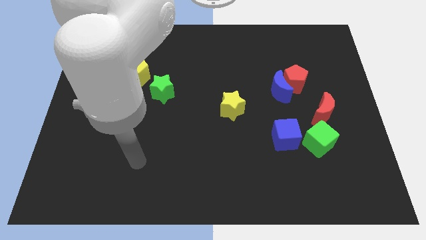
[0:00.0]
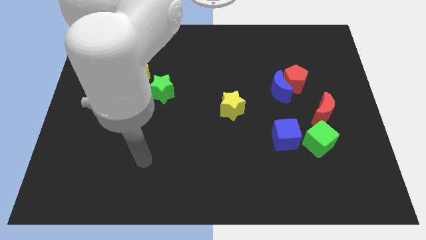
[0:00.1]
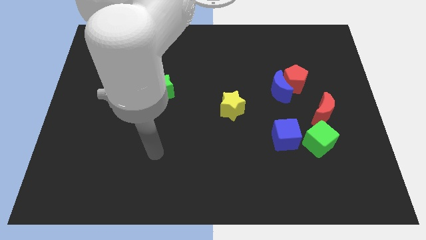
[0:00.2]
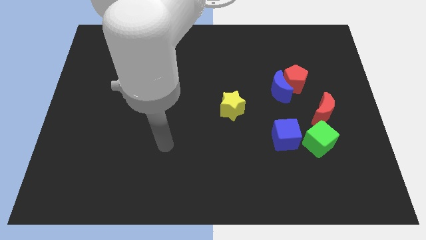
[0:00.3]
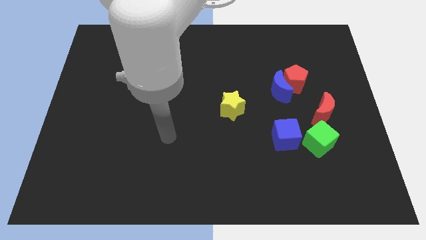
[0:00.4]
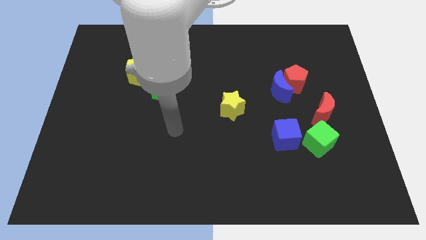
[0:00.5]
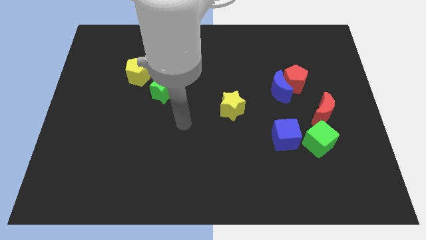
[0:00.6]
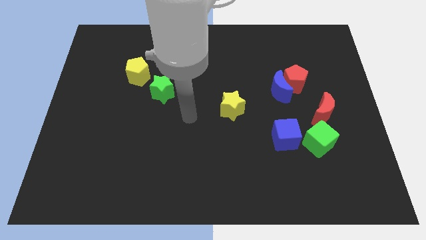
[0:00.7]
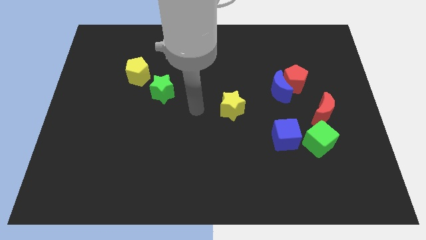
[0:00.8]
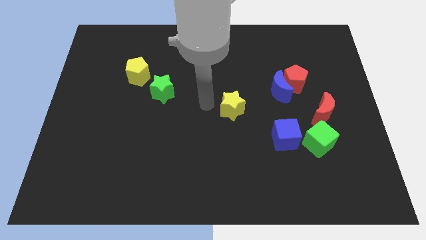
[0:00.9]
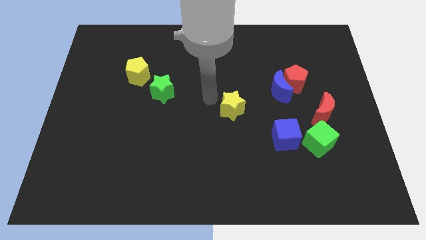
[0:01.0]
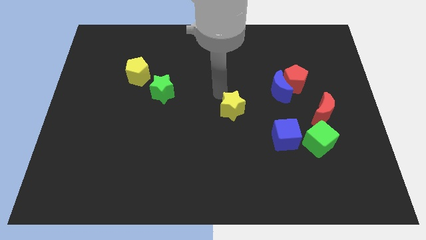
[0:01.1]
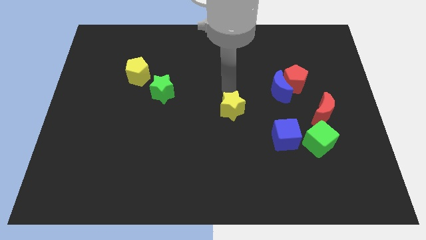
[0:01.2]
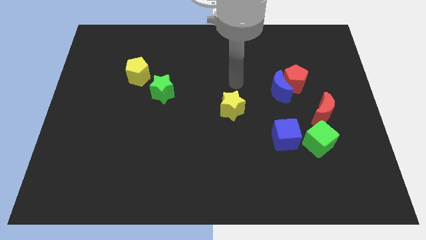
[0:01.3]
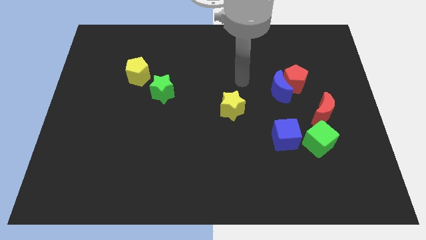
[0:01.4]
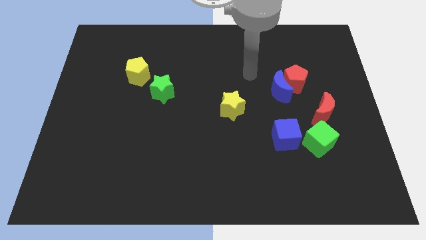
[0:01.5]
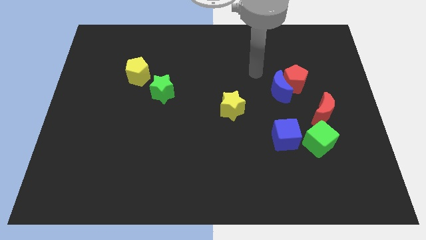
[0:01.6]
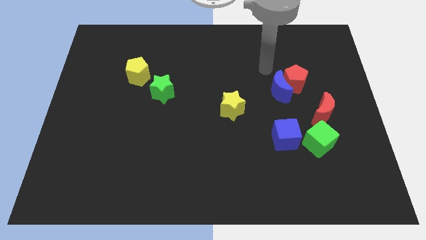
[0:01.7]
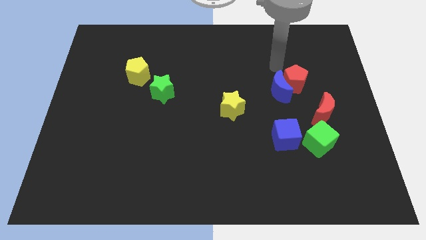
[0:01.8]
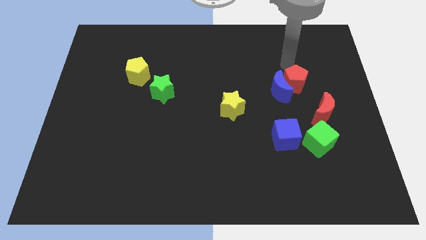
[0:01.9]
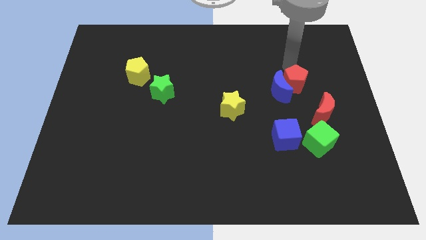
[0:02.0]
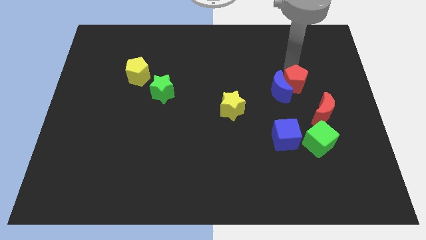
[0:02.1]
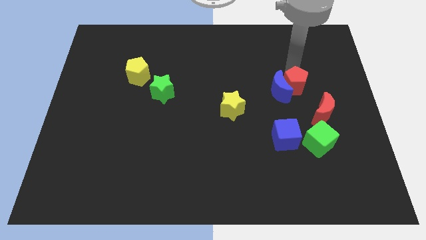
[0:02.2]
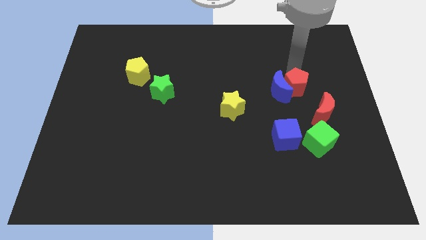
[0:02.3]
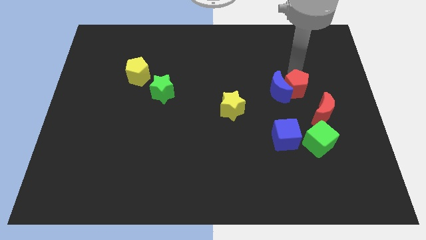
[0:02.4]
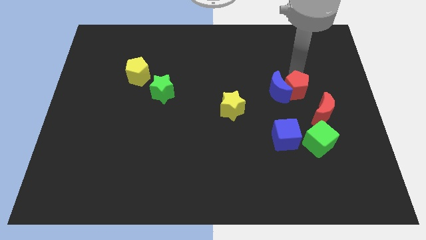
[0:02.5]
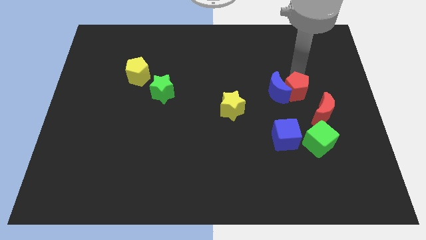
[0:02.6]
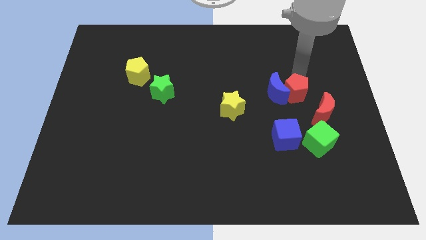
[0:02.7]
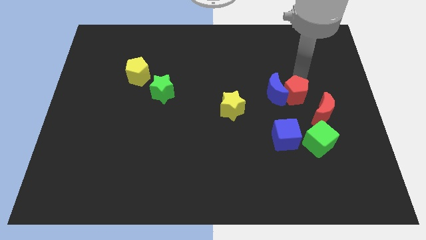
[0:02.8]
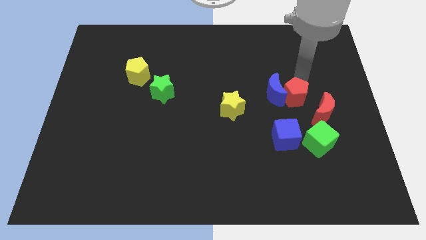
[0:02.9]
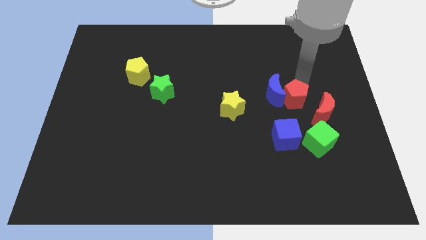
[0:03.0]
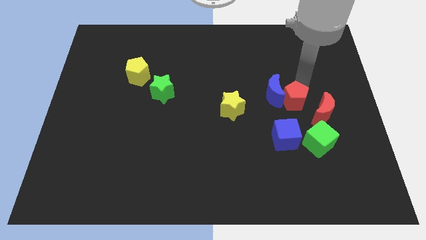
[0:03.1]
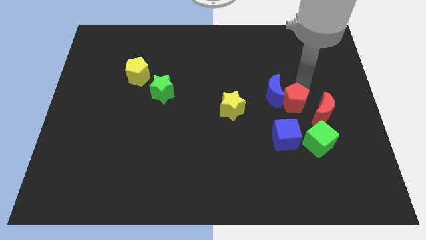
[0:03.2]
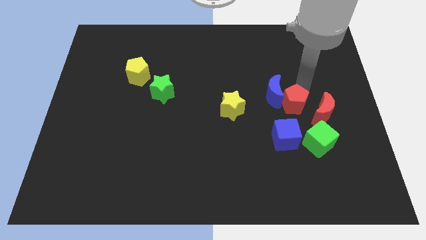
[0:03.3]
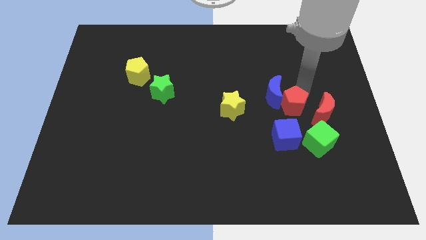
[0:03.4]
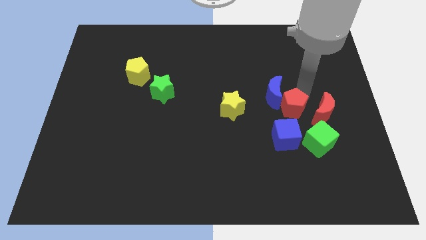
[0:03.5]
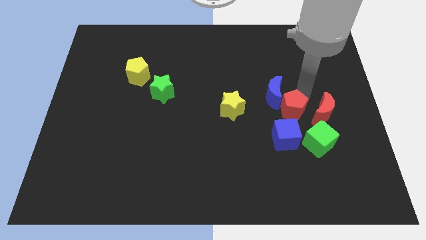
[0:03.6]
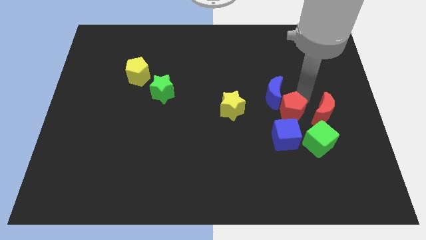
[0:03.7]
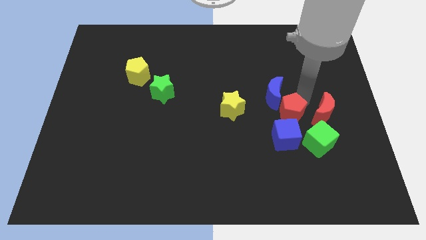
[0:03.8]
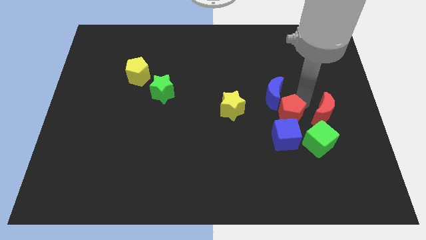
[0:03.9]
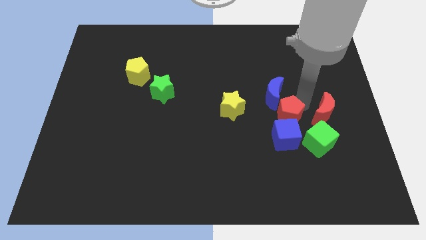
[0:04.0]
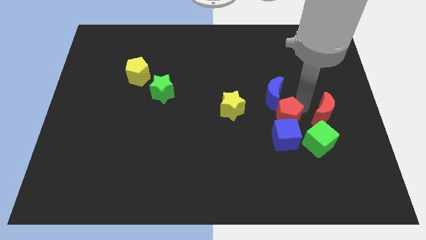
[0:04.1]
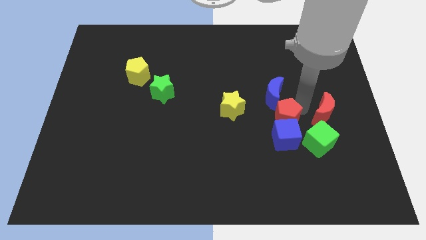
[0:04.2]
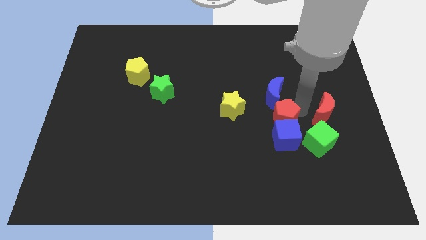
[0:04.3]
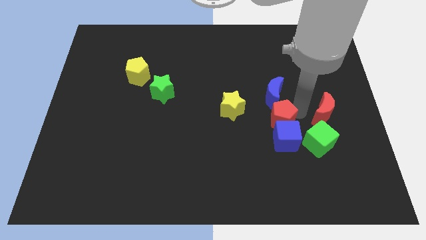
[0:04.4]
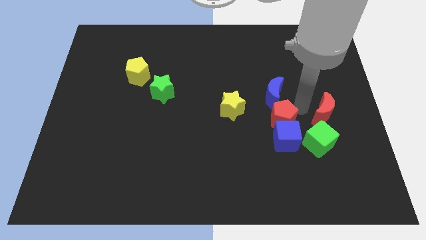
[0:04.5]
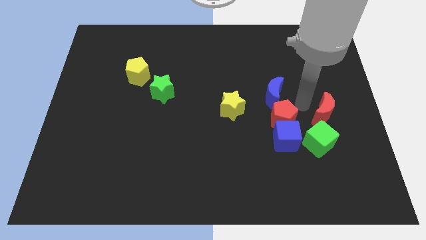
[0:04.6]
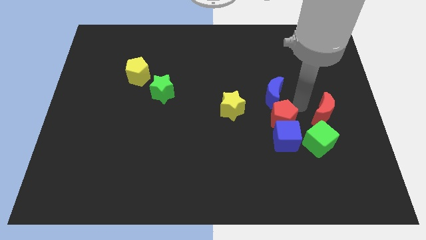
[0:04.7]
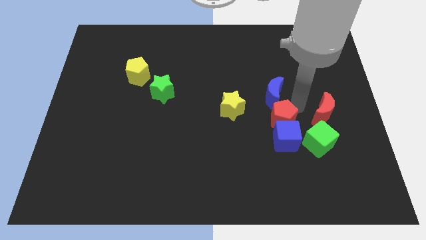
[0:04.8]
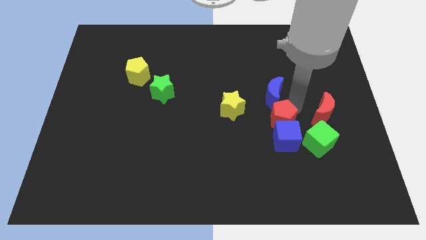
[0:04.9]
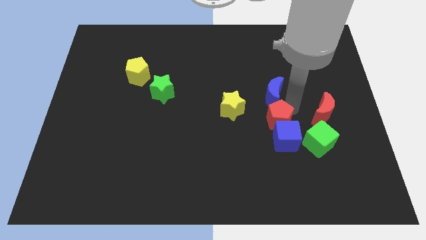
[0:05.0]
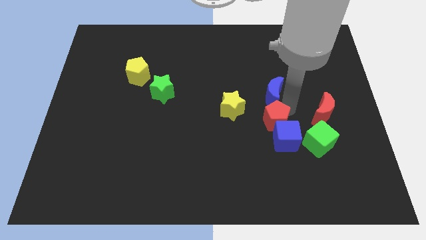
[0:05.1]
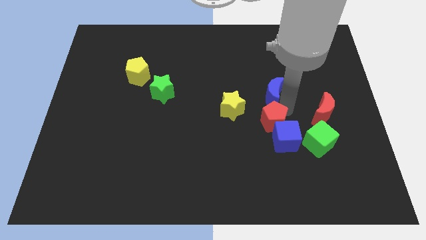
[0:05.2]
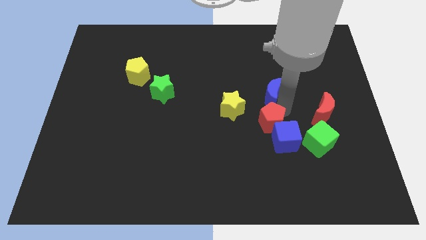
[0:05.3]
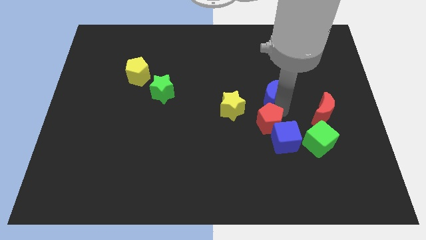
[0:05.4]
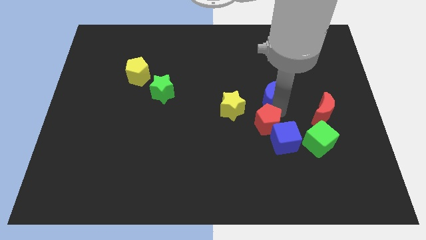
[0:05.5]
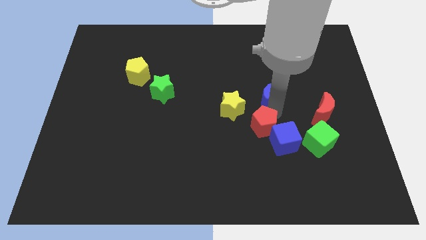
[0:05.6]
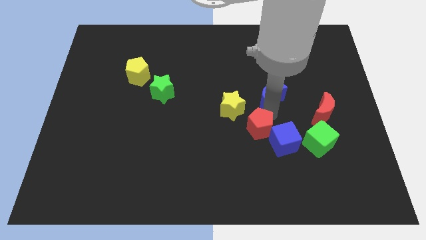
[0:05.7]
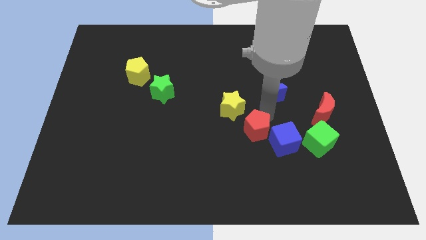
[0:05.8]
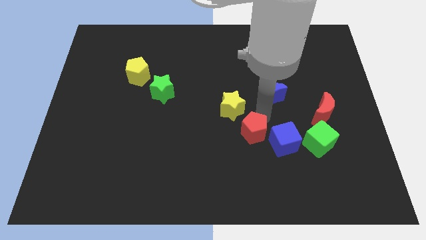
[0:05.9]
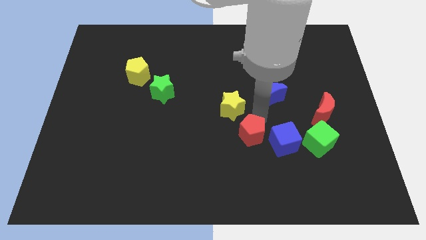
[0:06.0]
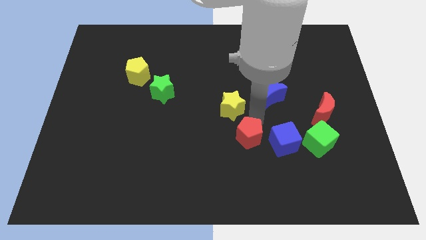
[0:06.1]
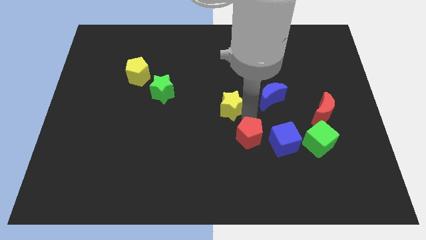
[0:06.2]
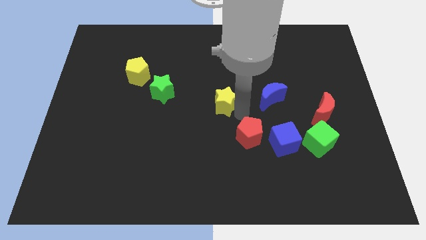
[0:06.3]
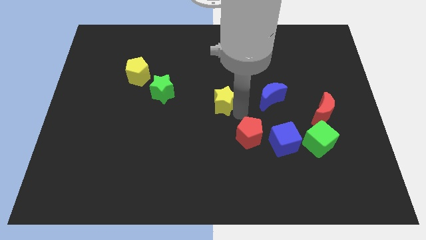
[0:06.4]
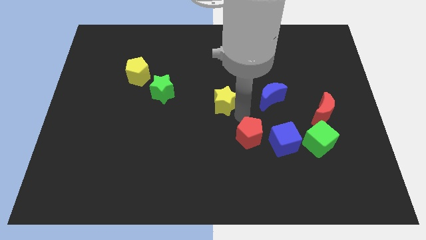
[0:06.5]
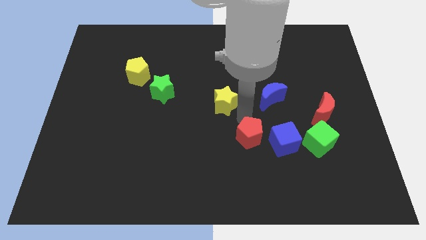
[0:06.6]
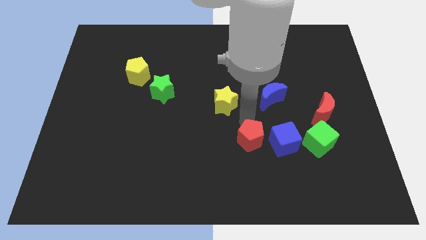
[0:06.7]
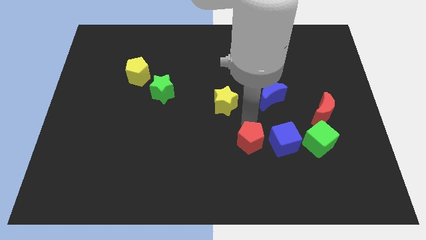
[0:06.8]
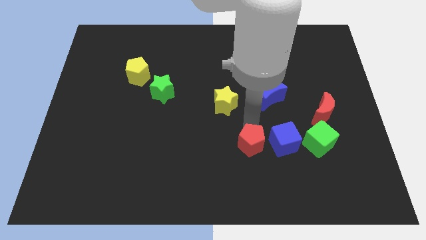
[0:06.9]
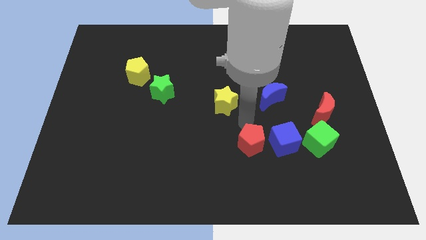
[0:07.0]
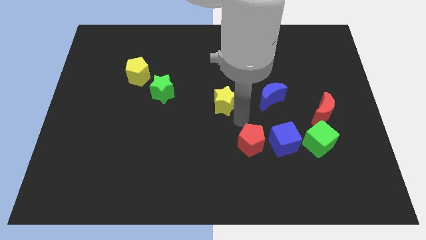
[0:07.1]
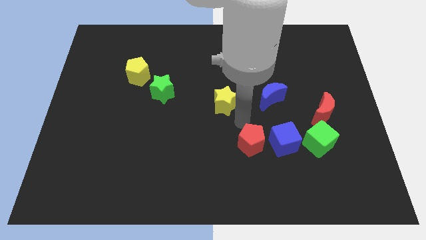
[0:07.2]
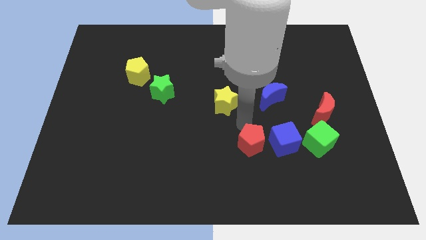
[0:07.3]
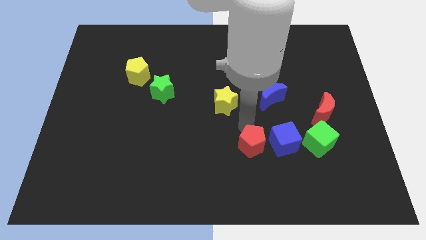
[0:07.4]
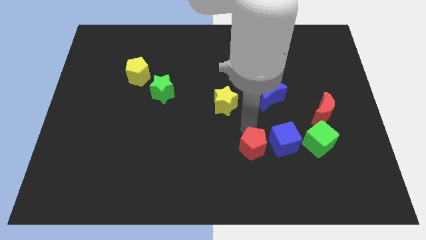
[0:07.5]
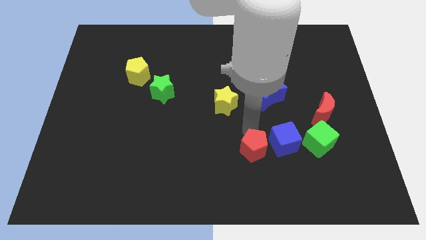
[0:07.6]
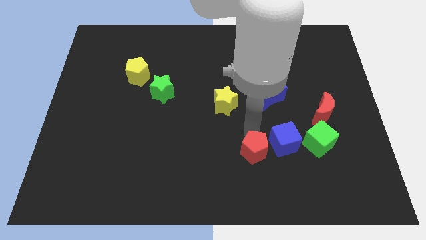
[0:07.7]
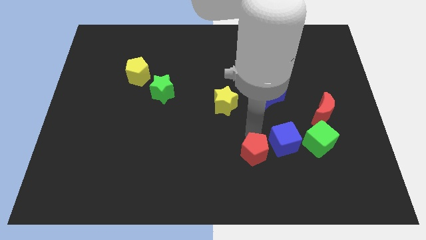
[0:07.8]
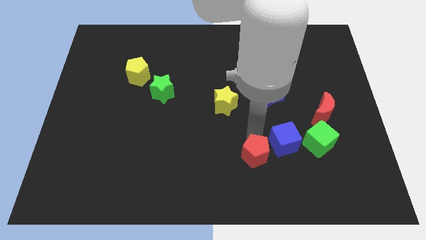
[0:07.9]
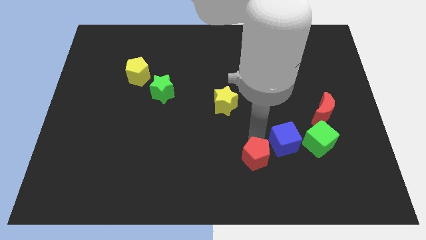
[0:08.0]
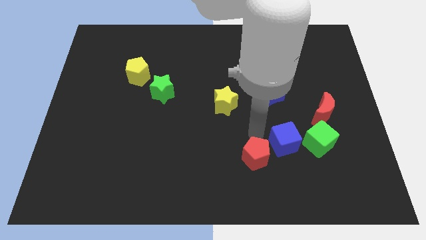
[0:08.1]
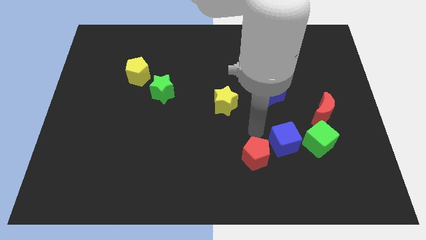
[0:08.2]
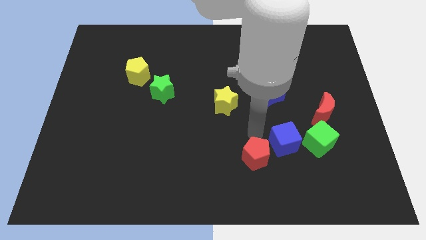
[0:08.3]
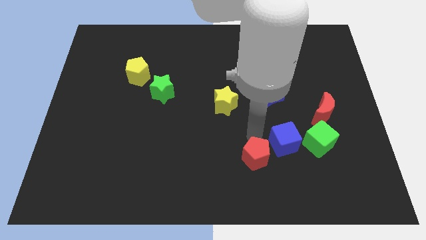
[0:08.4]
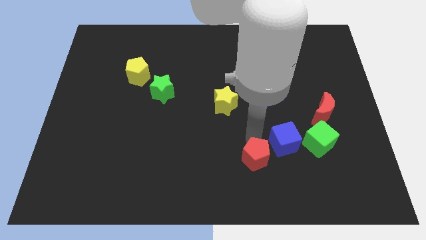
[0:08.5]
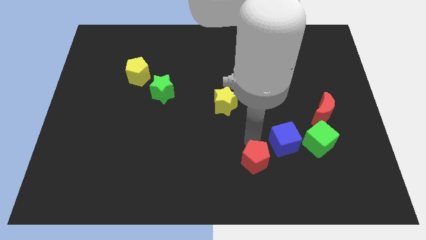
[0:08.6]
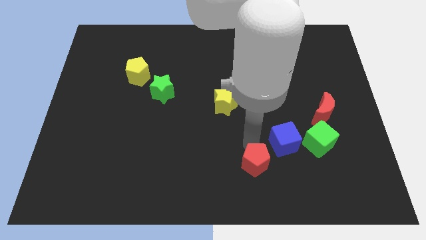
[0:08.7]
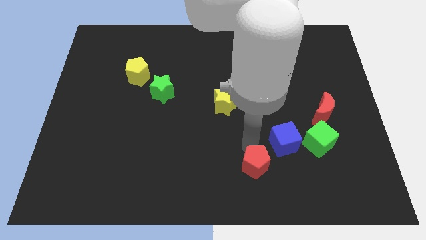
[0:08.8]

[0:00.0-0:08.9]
slide the red pentagon to the bottom

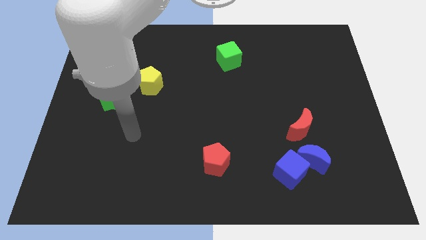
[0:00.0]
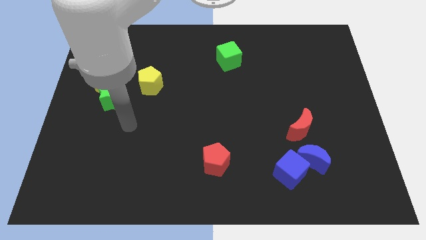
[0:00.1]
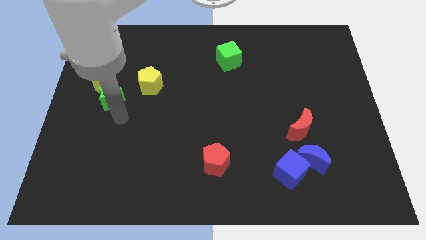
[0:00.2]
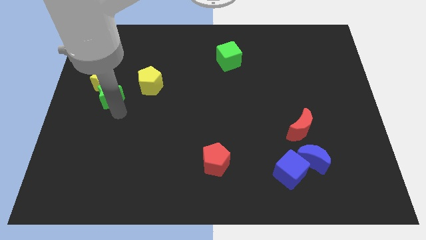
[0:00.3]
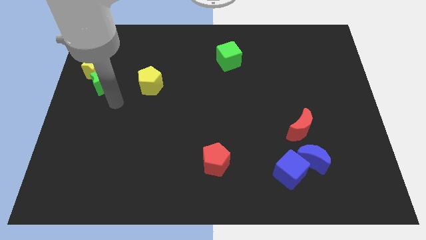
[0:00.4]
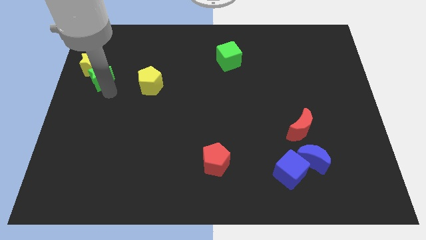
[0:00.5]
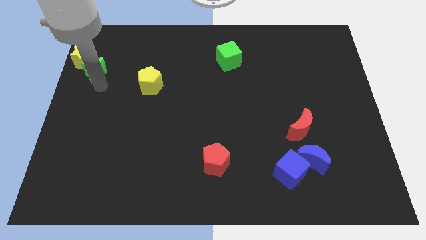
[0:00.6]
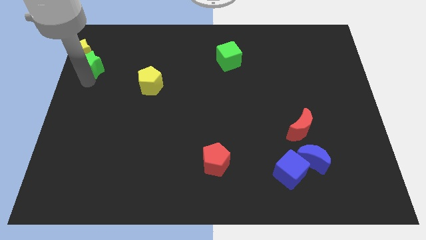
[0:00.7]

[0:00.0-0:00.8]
move the yellow star to the top left corner
